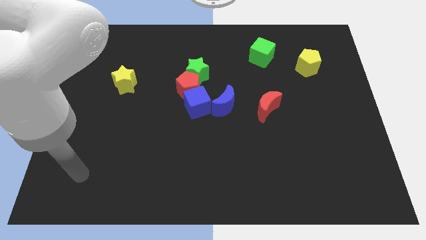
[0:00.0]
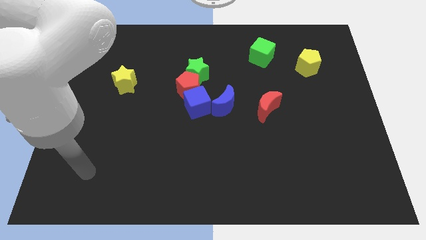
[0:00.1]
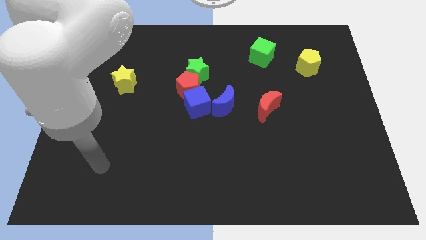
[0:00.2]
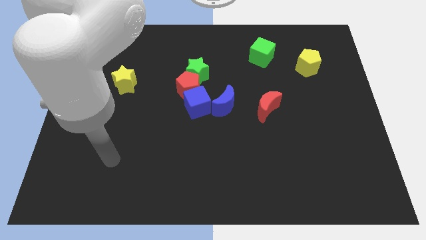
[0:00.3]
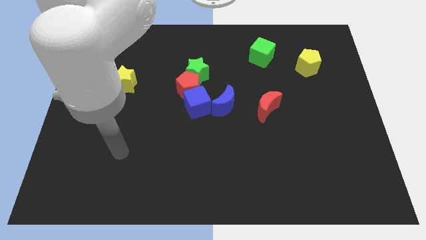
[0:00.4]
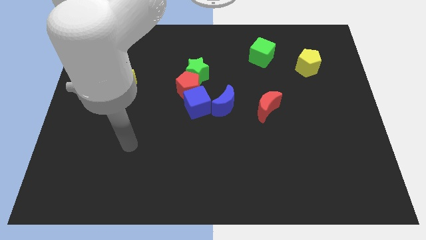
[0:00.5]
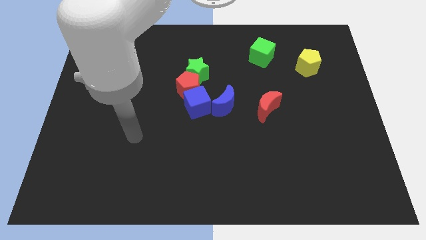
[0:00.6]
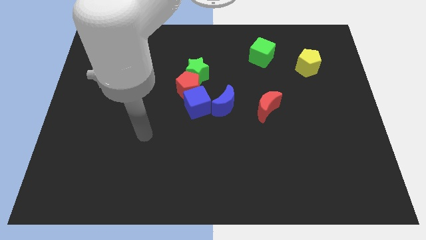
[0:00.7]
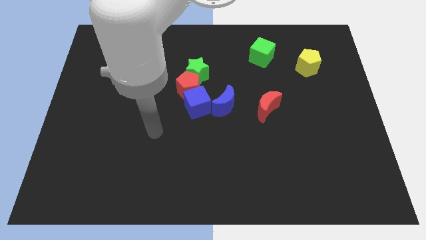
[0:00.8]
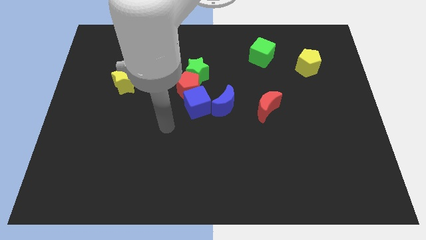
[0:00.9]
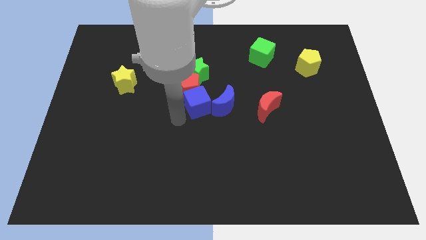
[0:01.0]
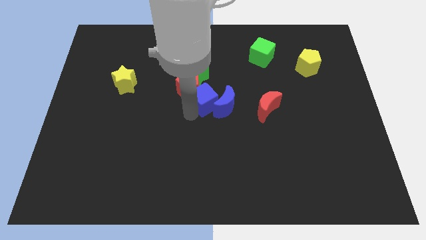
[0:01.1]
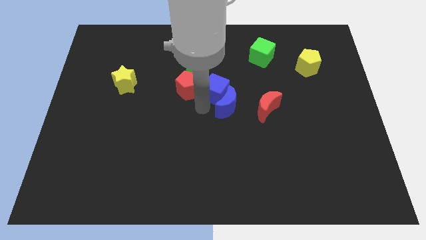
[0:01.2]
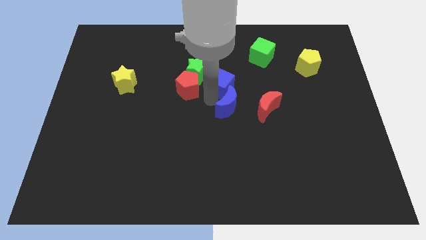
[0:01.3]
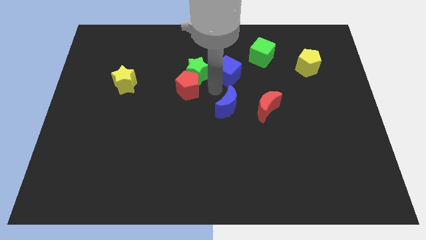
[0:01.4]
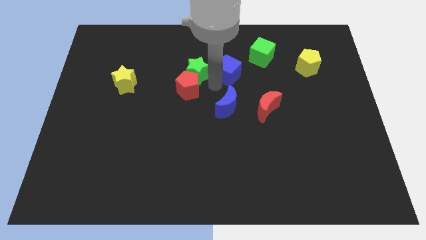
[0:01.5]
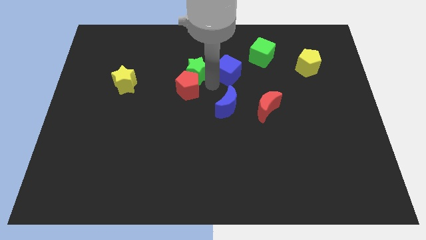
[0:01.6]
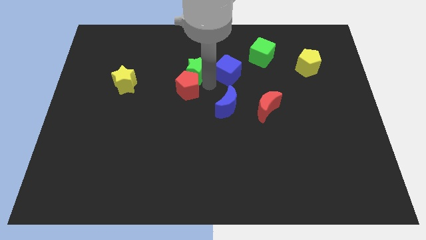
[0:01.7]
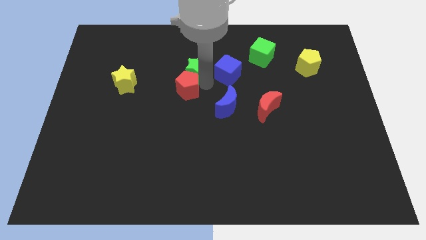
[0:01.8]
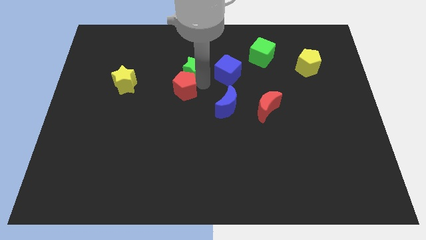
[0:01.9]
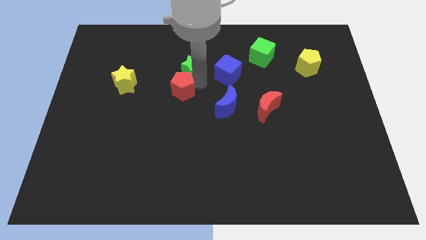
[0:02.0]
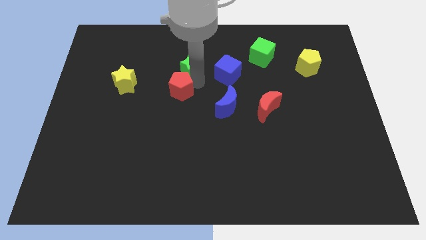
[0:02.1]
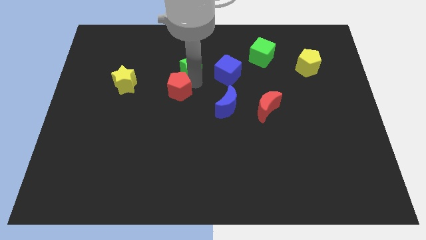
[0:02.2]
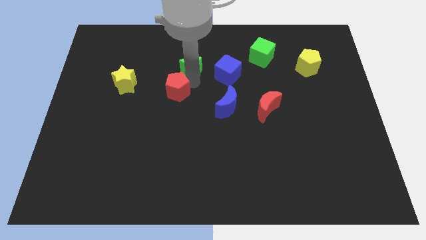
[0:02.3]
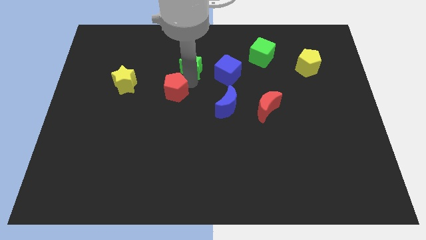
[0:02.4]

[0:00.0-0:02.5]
pull the red pentagon apart from the green star, blue cube, and blue moon

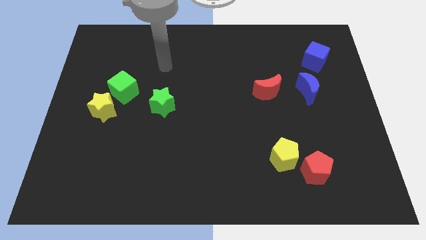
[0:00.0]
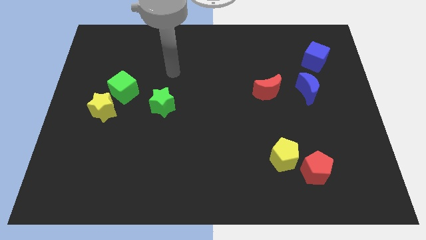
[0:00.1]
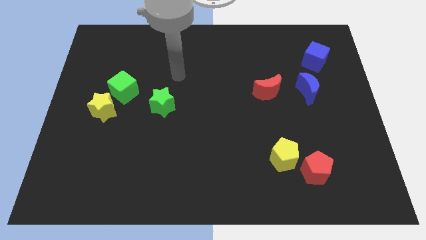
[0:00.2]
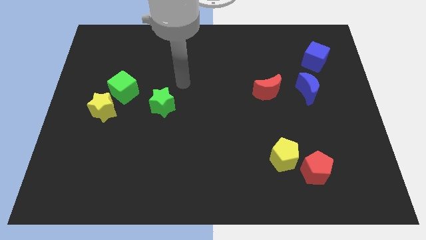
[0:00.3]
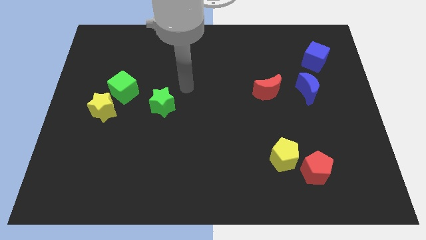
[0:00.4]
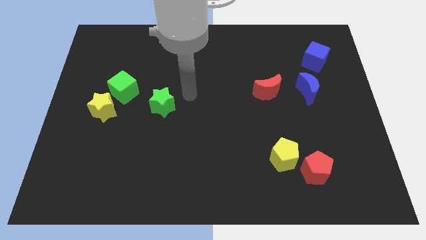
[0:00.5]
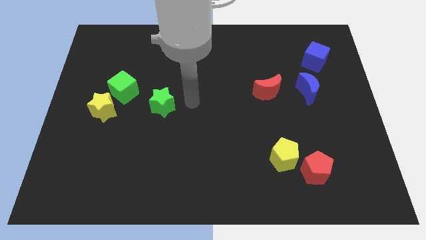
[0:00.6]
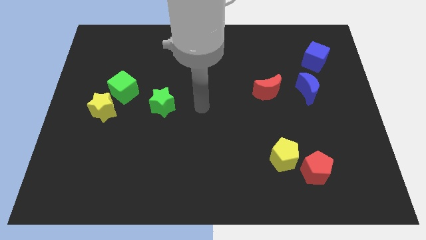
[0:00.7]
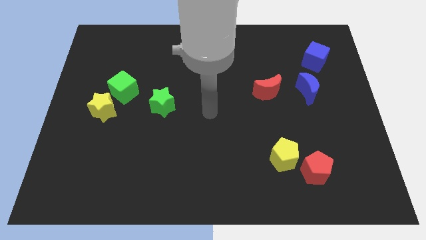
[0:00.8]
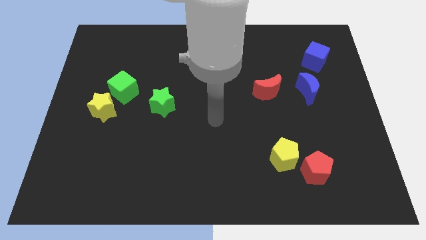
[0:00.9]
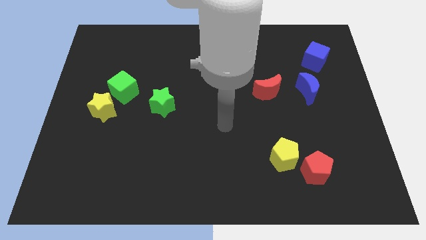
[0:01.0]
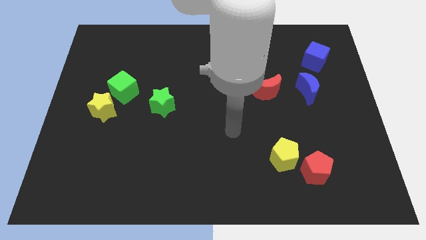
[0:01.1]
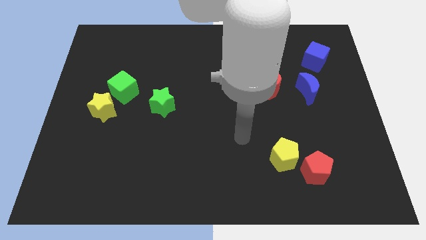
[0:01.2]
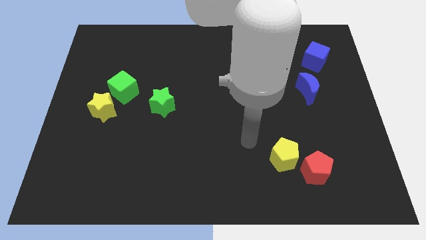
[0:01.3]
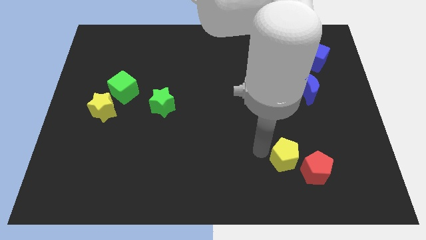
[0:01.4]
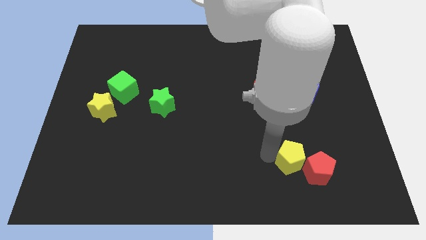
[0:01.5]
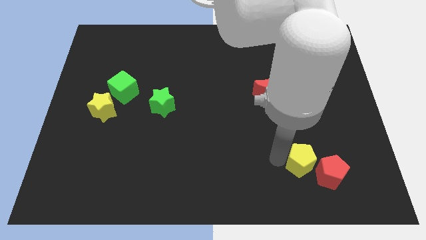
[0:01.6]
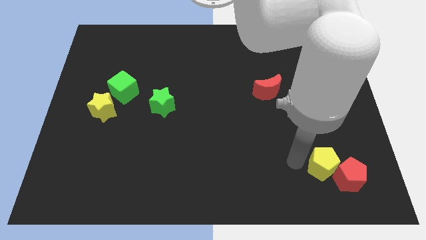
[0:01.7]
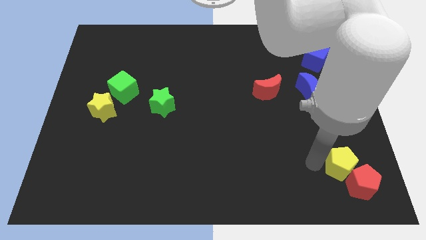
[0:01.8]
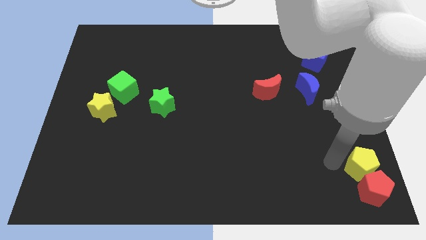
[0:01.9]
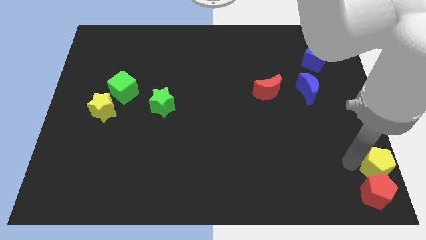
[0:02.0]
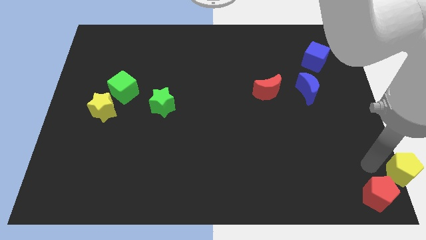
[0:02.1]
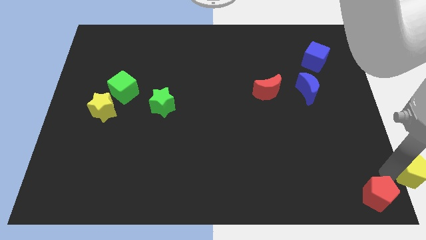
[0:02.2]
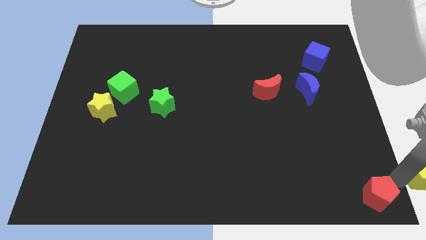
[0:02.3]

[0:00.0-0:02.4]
pull the red pentagon apart from the yellow pentagon

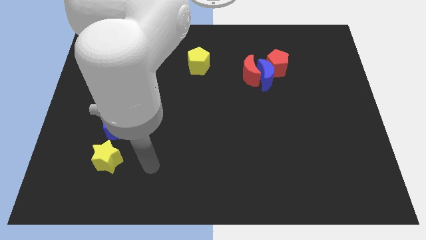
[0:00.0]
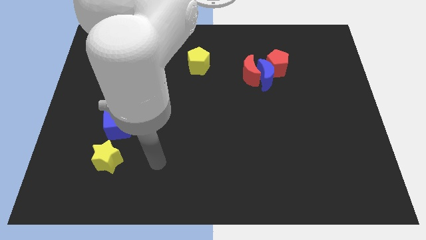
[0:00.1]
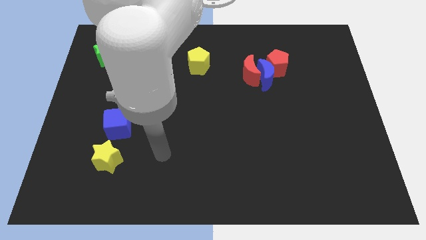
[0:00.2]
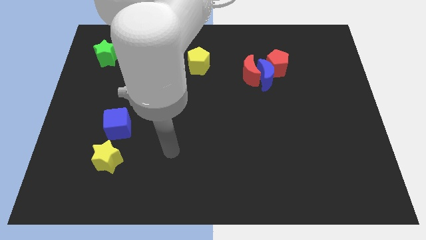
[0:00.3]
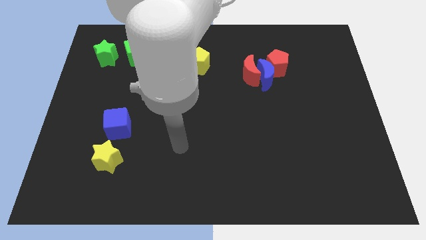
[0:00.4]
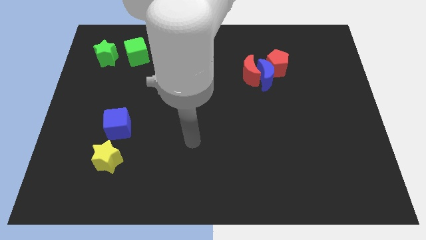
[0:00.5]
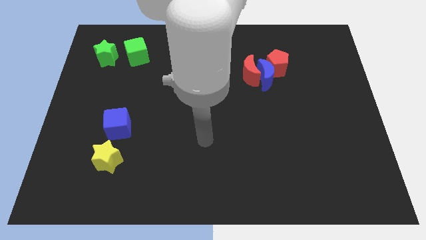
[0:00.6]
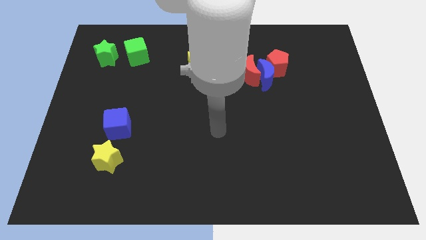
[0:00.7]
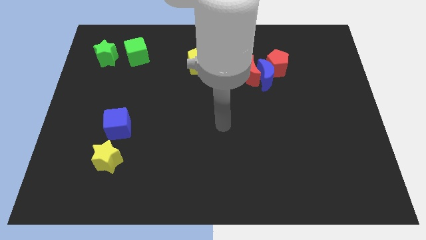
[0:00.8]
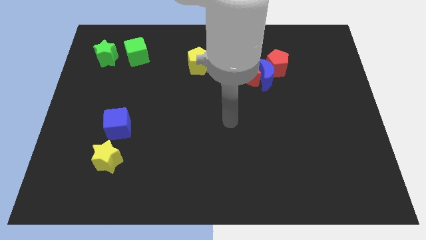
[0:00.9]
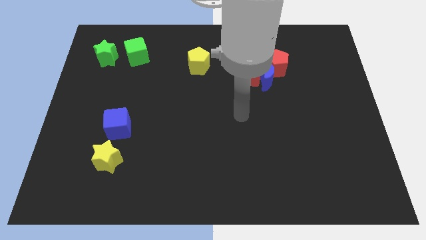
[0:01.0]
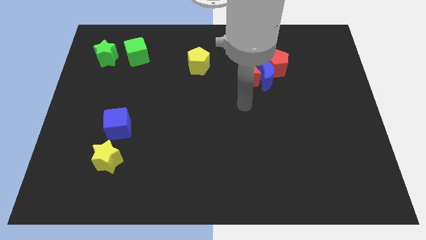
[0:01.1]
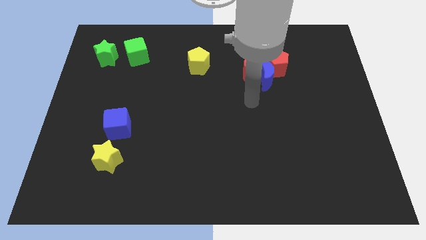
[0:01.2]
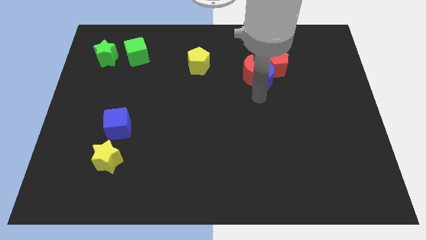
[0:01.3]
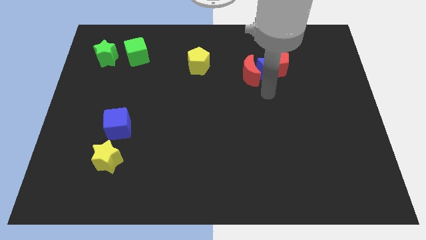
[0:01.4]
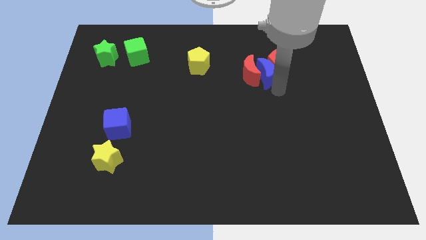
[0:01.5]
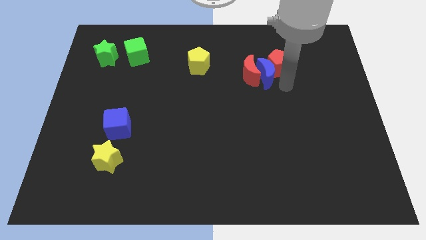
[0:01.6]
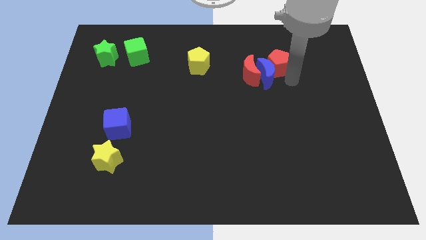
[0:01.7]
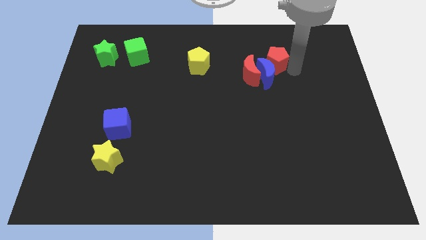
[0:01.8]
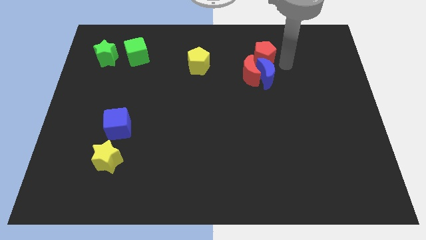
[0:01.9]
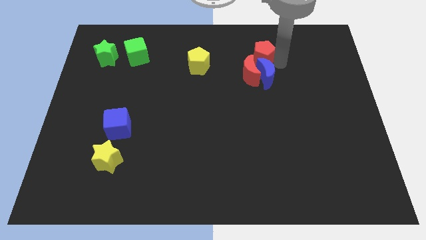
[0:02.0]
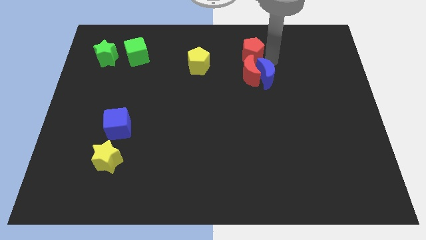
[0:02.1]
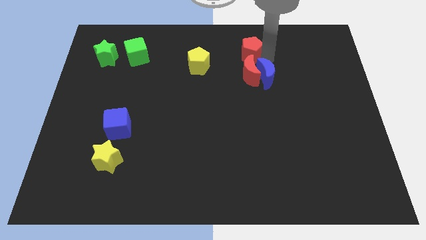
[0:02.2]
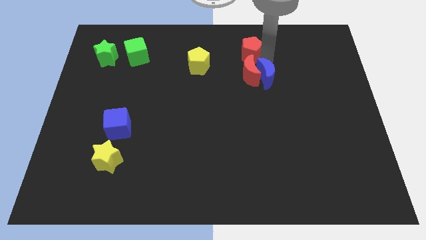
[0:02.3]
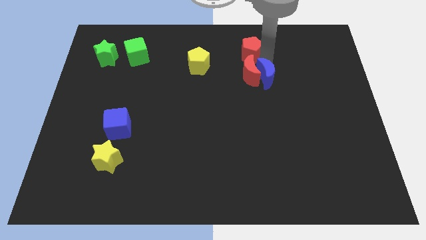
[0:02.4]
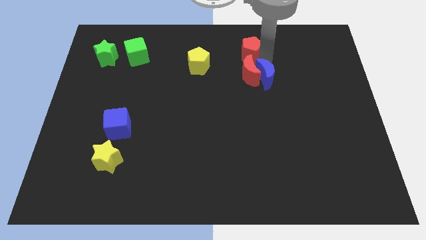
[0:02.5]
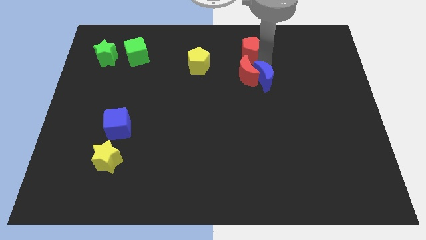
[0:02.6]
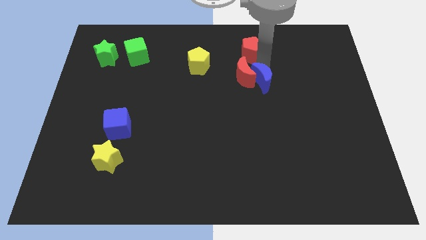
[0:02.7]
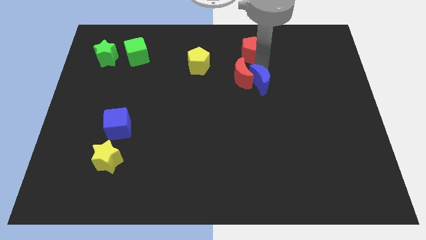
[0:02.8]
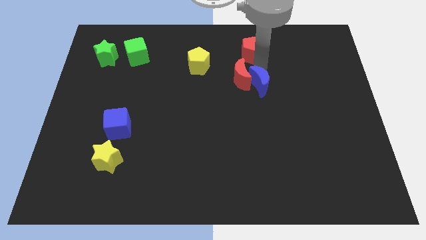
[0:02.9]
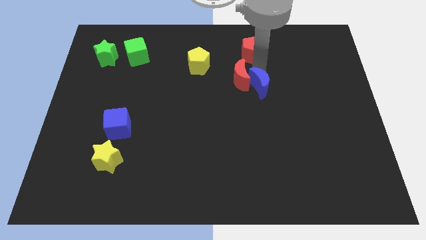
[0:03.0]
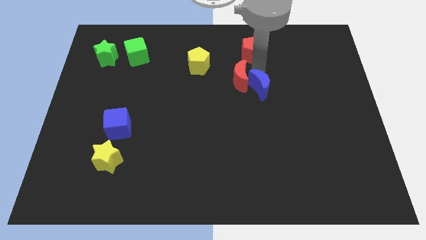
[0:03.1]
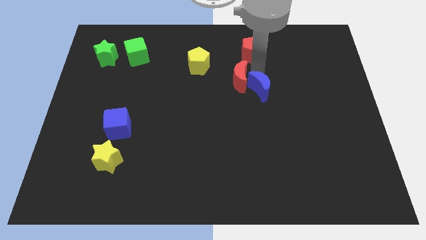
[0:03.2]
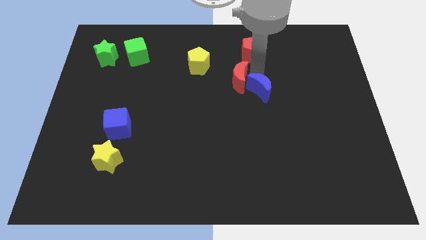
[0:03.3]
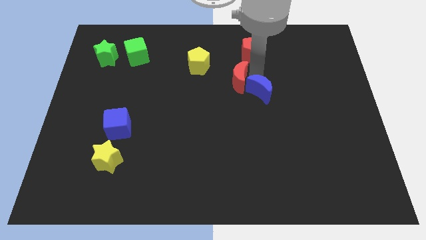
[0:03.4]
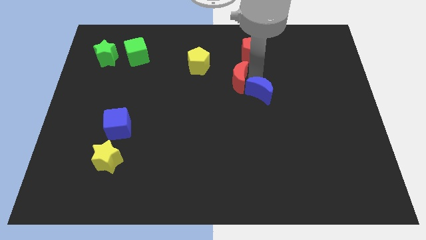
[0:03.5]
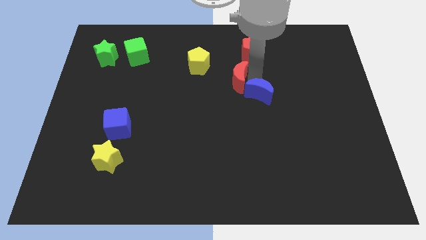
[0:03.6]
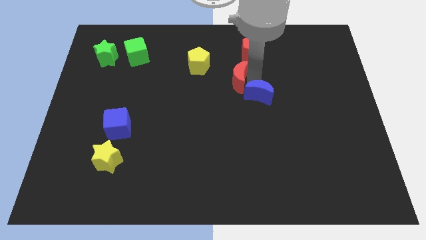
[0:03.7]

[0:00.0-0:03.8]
pull the blue moon apart from the red moon and red pentagon

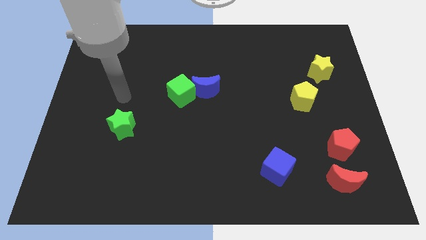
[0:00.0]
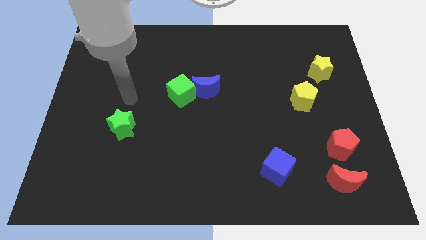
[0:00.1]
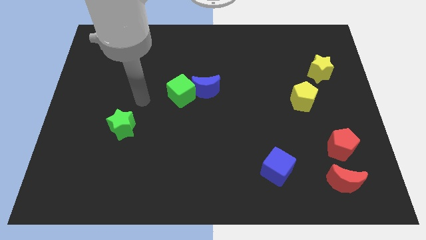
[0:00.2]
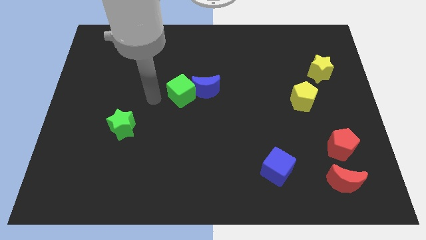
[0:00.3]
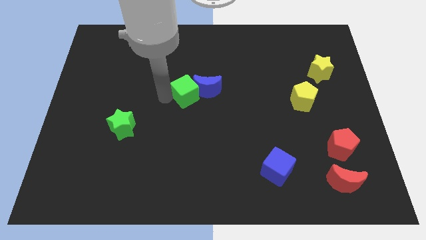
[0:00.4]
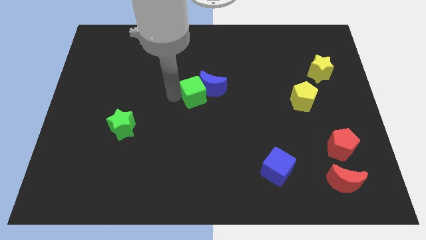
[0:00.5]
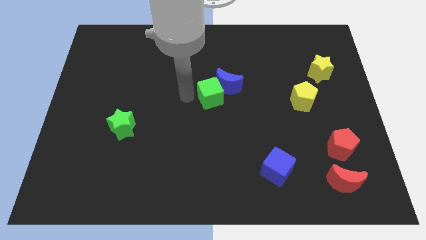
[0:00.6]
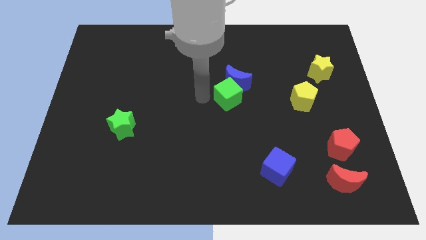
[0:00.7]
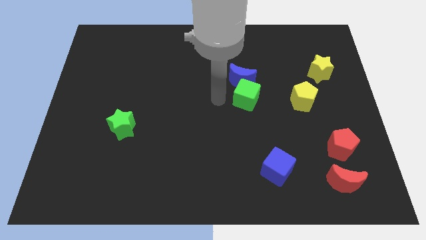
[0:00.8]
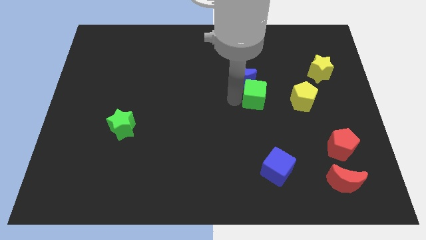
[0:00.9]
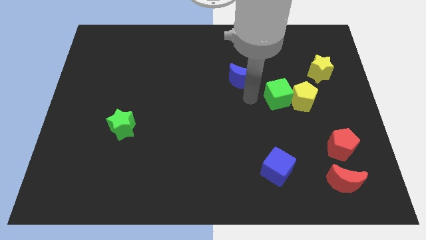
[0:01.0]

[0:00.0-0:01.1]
pull the blue moon apart from the green cube
